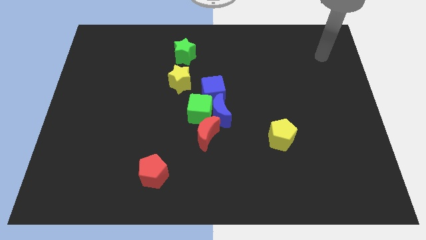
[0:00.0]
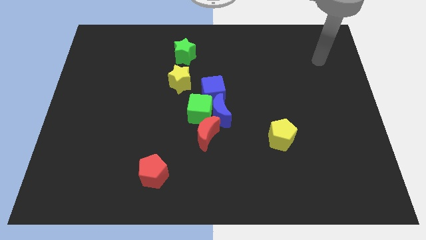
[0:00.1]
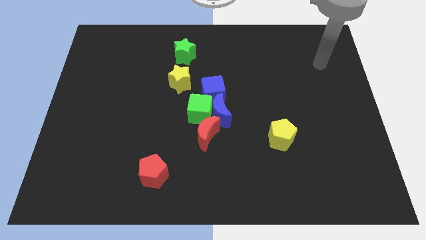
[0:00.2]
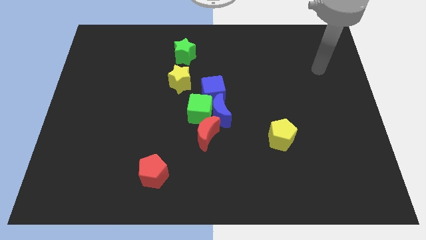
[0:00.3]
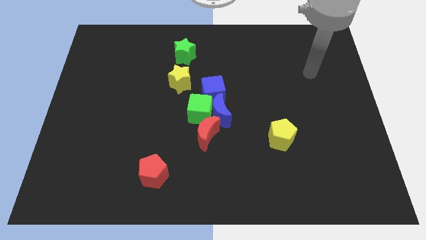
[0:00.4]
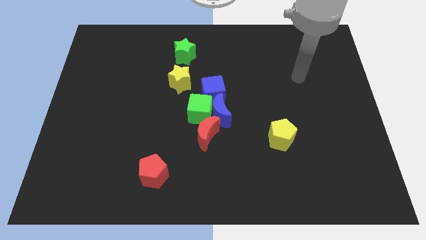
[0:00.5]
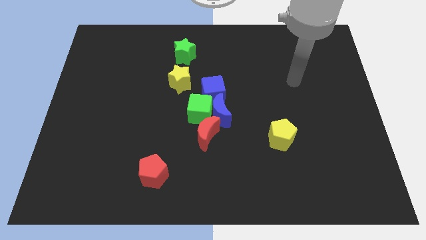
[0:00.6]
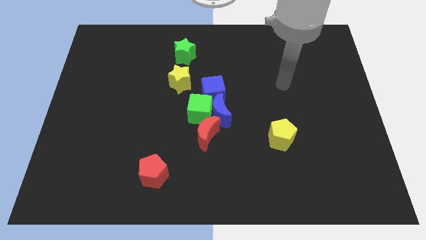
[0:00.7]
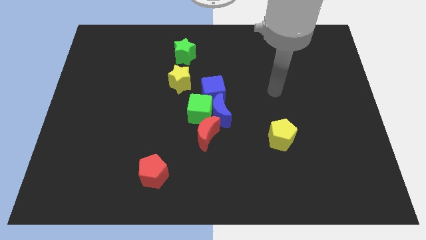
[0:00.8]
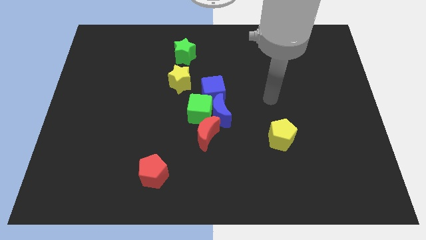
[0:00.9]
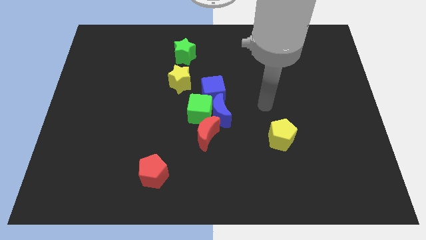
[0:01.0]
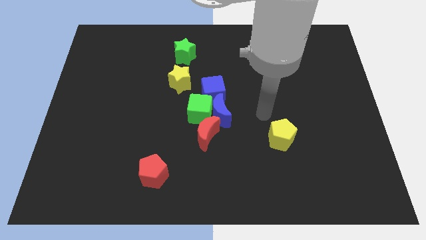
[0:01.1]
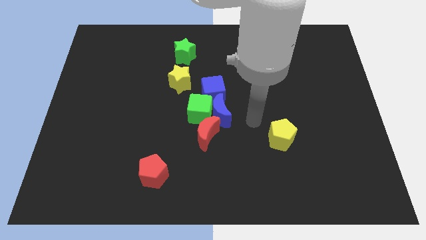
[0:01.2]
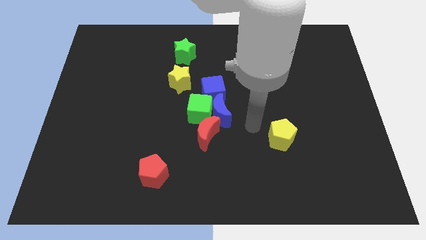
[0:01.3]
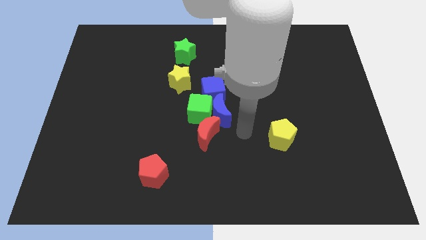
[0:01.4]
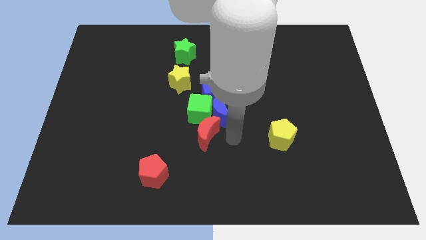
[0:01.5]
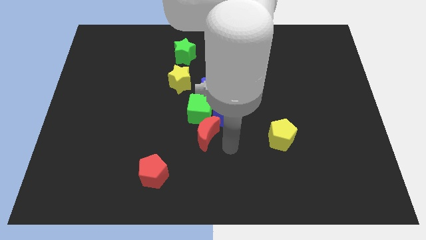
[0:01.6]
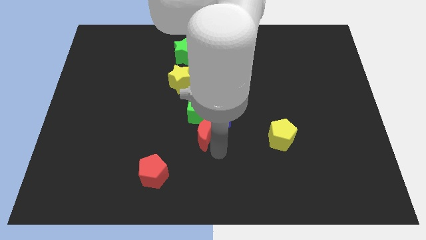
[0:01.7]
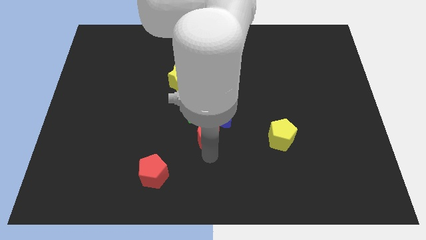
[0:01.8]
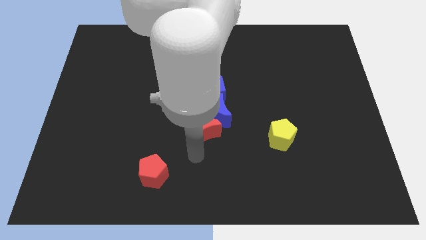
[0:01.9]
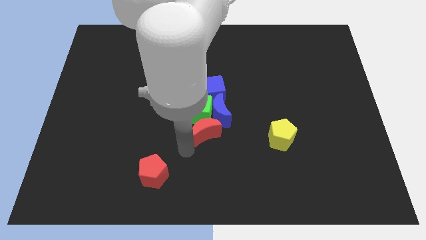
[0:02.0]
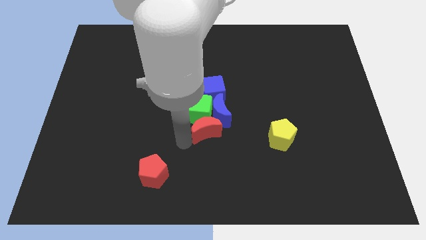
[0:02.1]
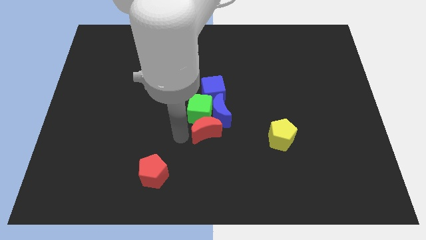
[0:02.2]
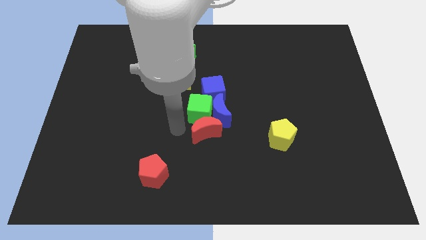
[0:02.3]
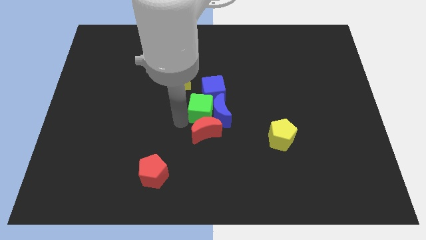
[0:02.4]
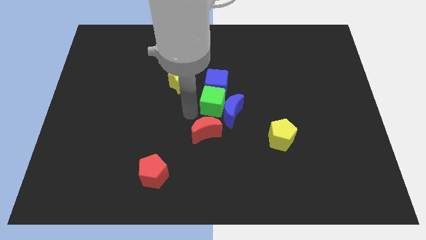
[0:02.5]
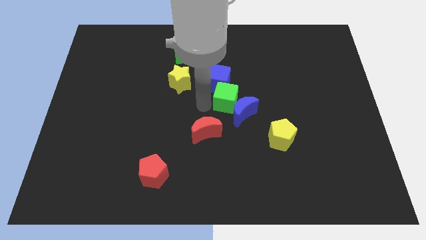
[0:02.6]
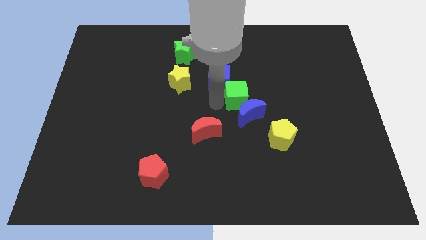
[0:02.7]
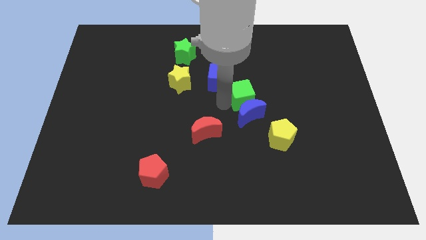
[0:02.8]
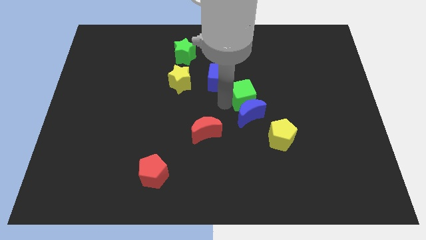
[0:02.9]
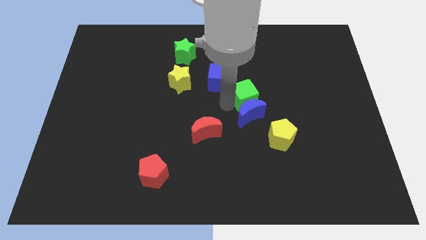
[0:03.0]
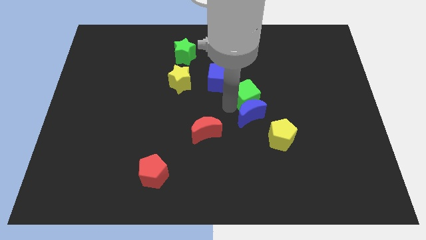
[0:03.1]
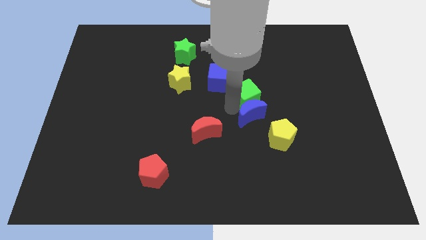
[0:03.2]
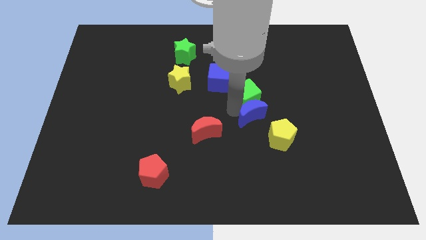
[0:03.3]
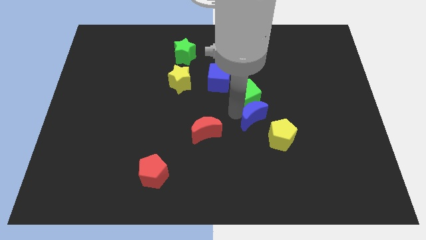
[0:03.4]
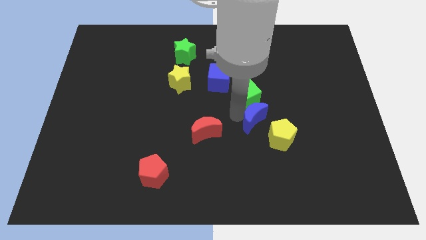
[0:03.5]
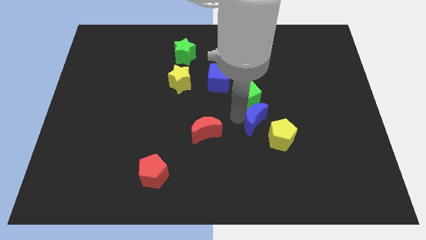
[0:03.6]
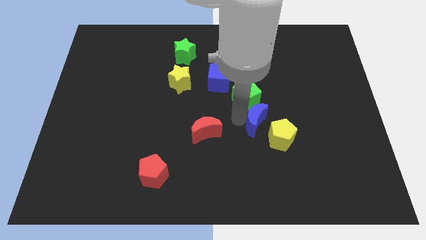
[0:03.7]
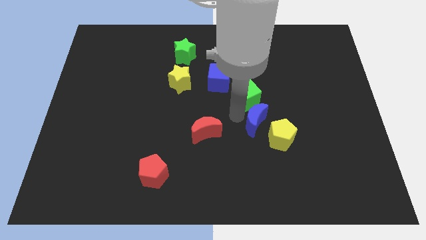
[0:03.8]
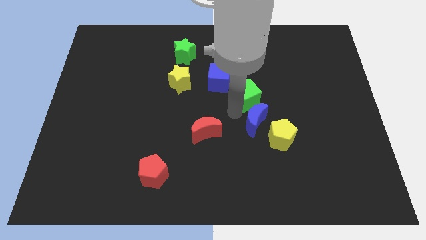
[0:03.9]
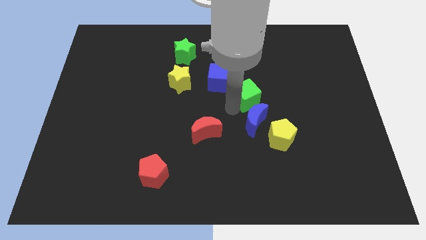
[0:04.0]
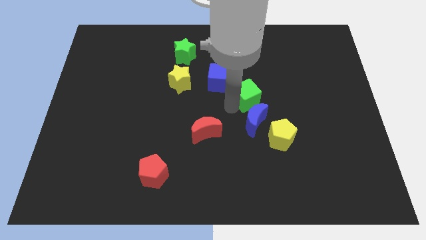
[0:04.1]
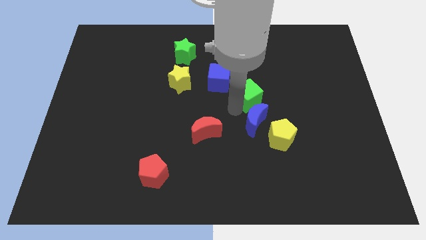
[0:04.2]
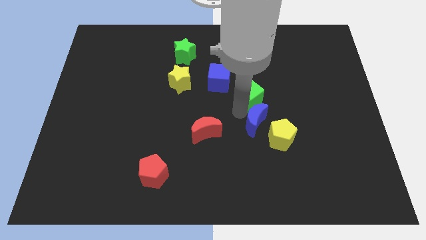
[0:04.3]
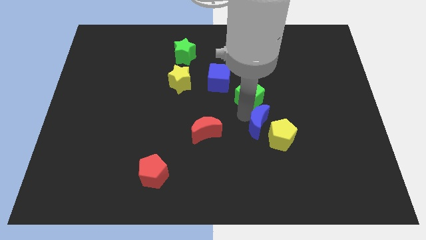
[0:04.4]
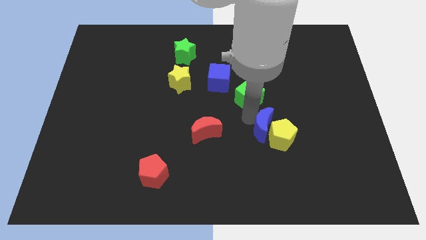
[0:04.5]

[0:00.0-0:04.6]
pull the blue moon apart from the group of blocks

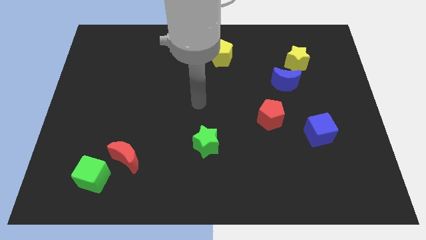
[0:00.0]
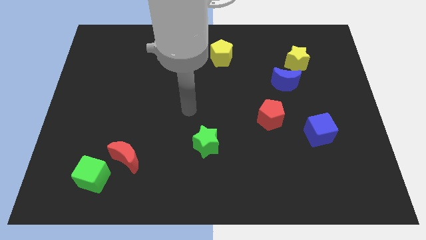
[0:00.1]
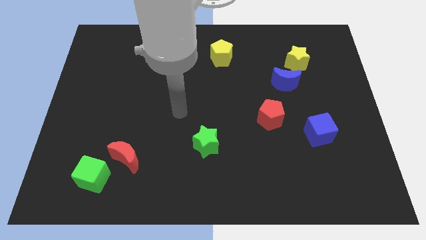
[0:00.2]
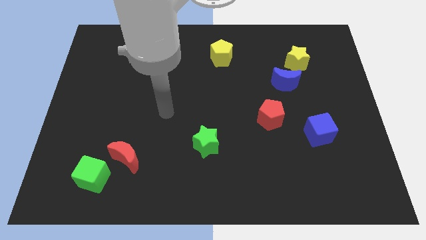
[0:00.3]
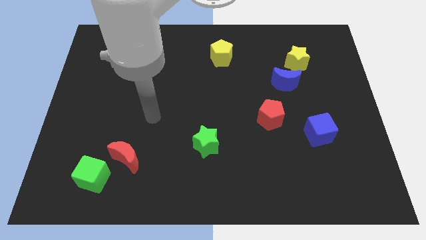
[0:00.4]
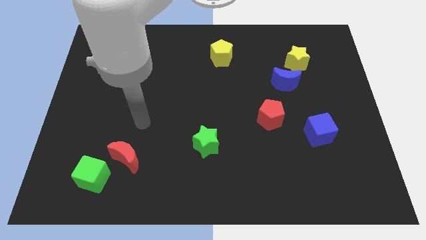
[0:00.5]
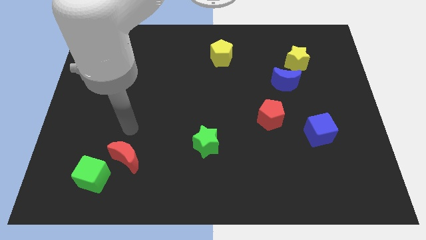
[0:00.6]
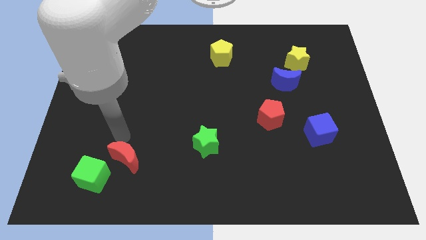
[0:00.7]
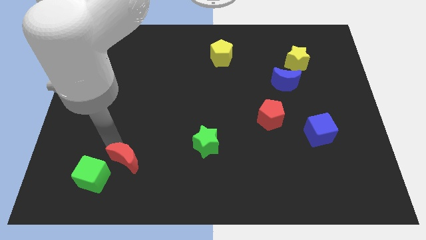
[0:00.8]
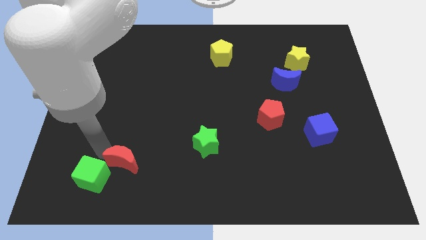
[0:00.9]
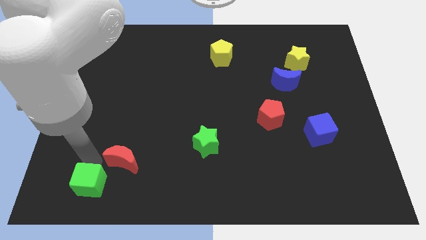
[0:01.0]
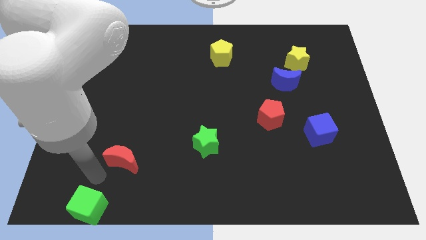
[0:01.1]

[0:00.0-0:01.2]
move the red moon away from the green cube

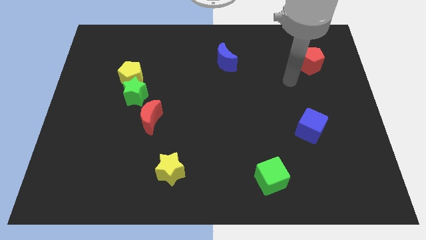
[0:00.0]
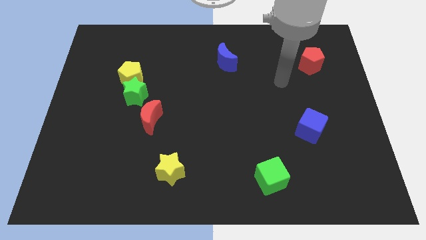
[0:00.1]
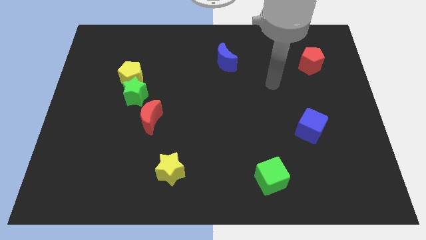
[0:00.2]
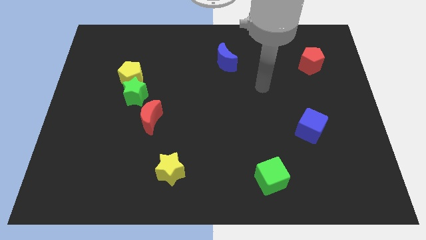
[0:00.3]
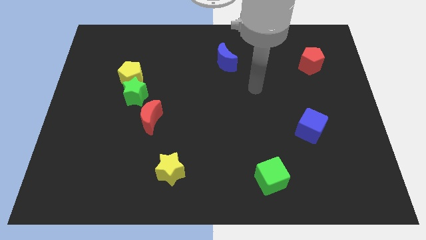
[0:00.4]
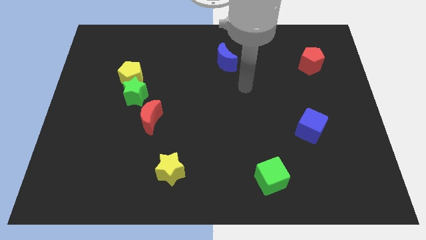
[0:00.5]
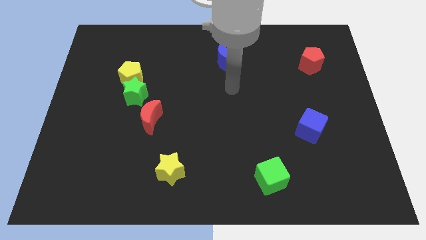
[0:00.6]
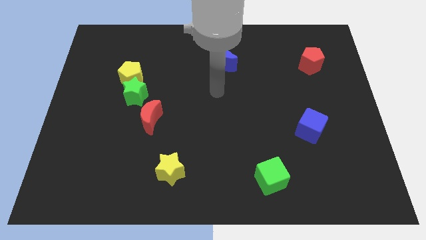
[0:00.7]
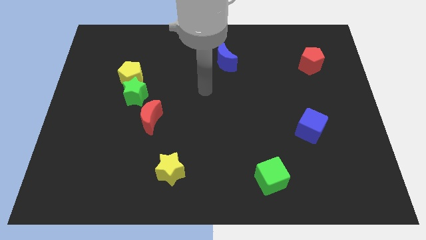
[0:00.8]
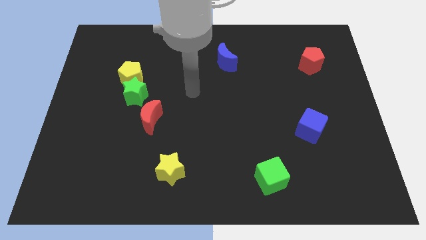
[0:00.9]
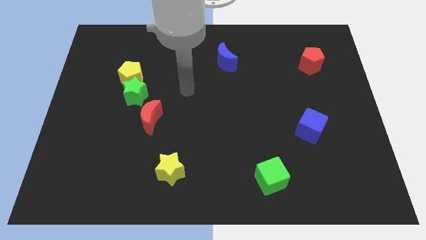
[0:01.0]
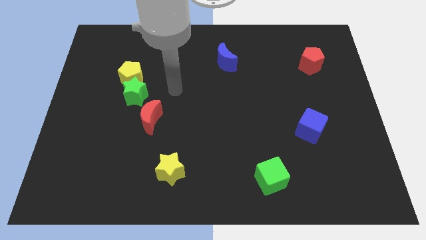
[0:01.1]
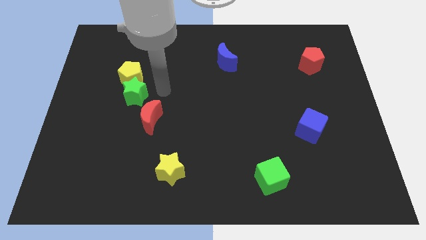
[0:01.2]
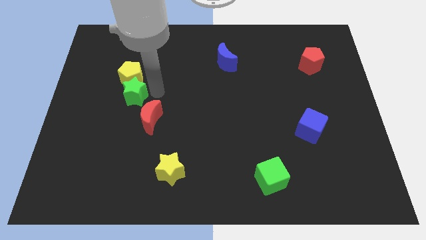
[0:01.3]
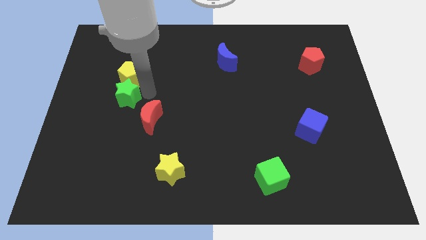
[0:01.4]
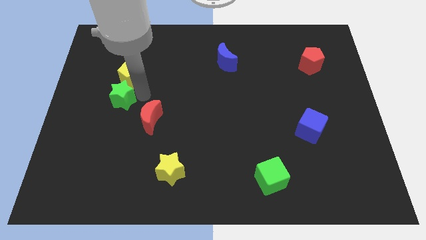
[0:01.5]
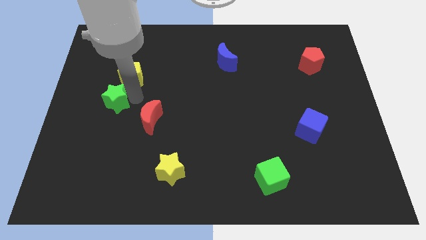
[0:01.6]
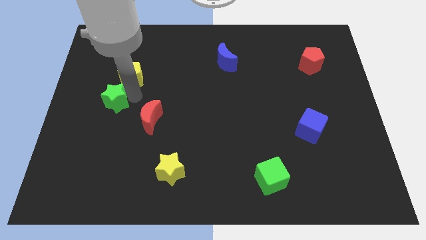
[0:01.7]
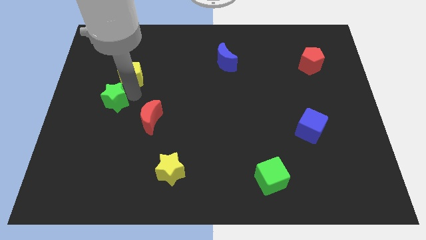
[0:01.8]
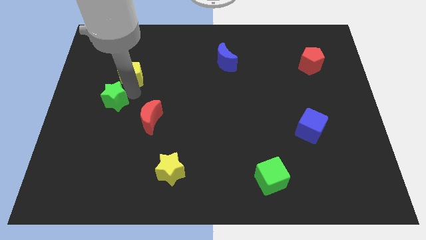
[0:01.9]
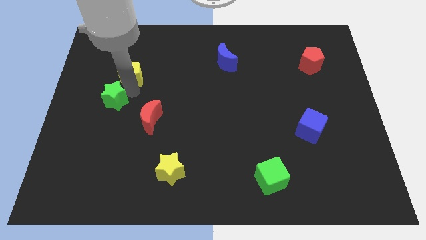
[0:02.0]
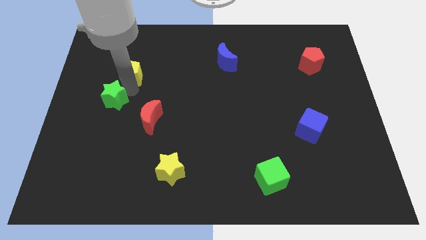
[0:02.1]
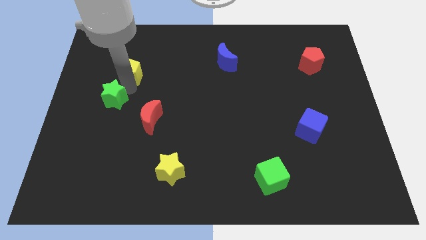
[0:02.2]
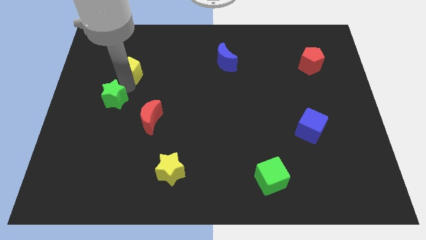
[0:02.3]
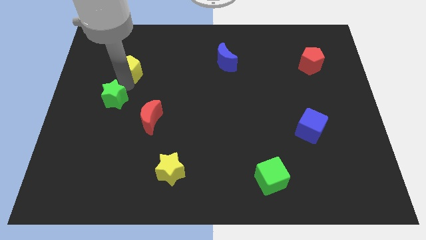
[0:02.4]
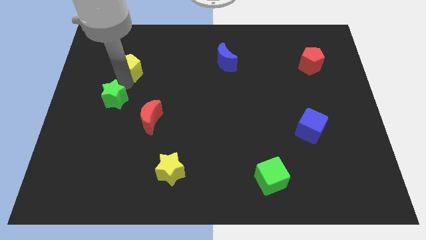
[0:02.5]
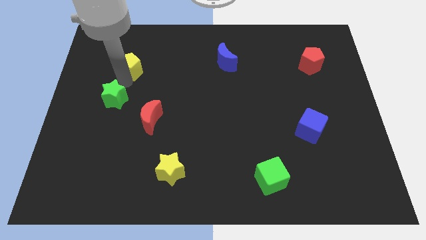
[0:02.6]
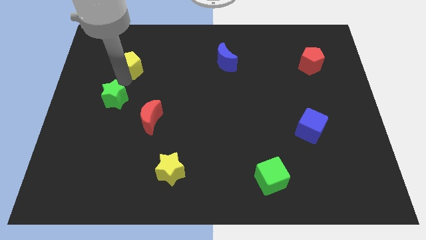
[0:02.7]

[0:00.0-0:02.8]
move the yellow pentagon away from the green star

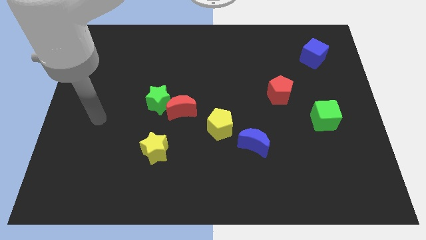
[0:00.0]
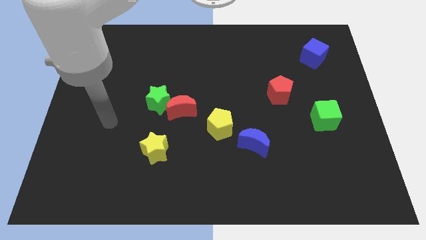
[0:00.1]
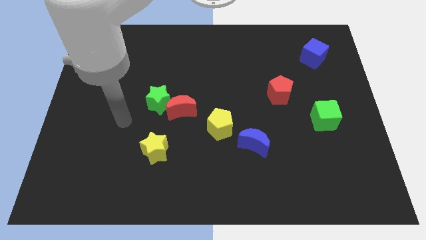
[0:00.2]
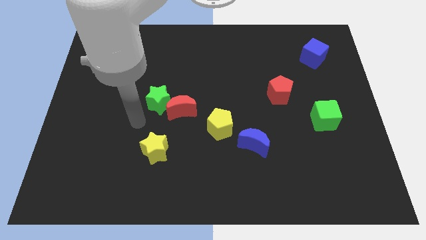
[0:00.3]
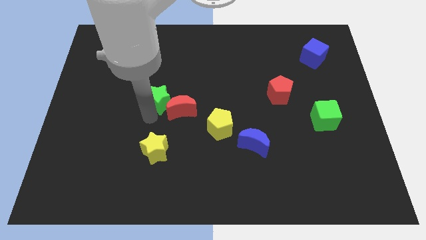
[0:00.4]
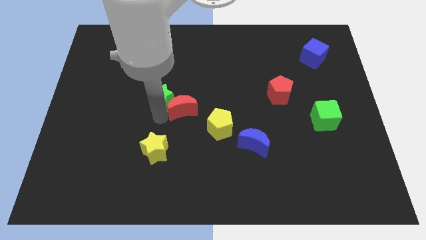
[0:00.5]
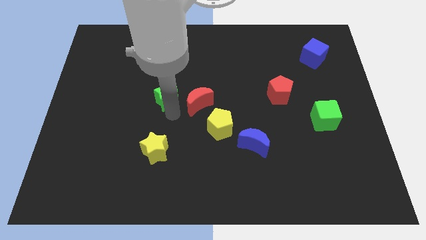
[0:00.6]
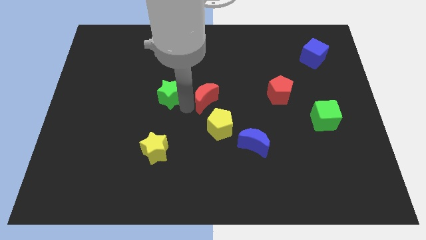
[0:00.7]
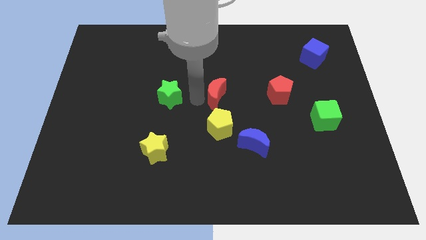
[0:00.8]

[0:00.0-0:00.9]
pull the green star apart from the red moon
